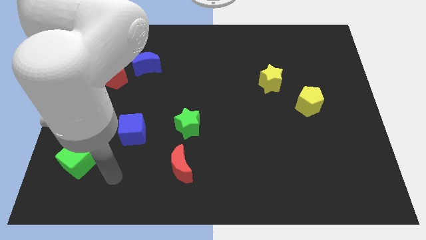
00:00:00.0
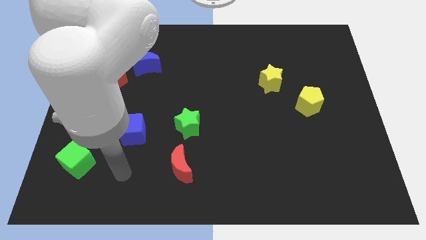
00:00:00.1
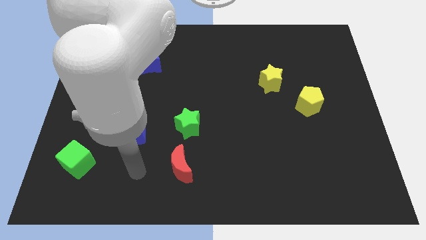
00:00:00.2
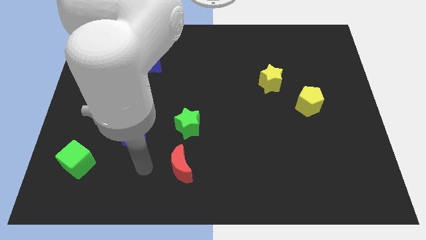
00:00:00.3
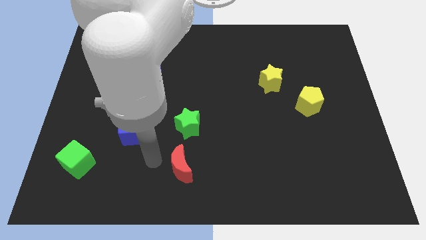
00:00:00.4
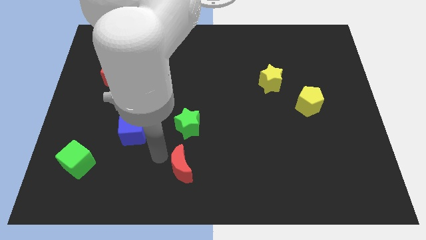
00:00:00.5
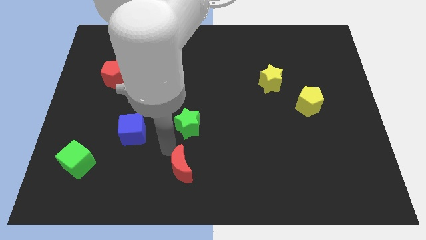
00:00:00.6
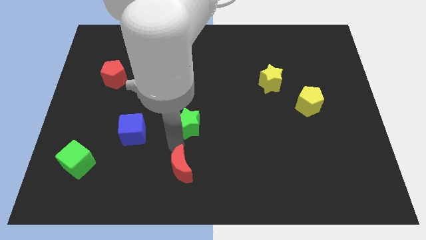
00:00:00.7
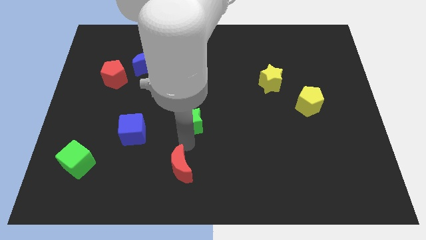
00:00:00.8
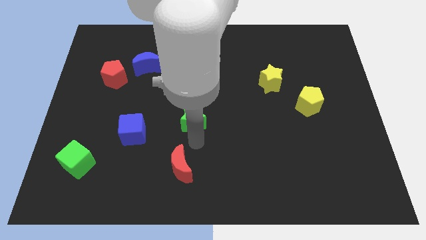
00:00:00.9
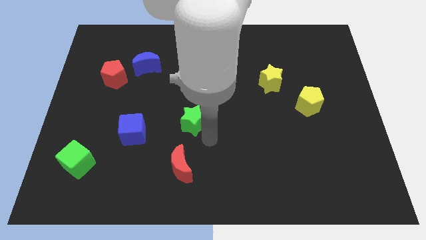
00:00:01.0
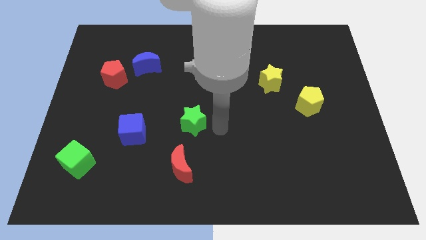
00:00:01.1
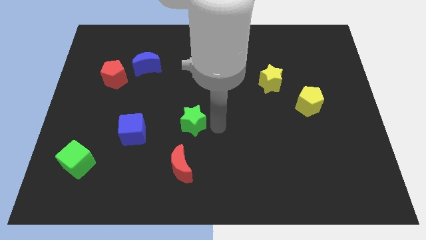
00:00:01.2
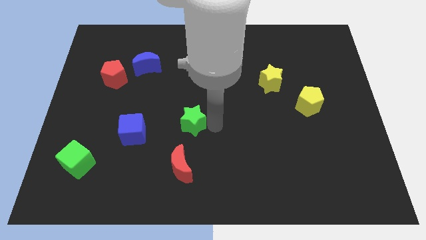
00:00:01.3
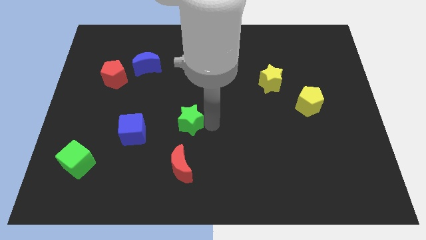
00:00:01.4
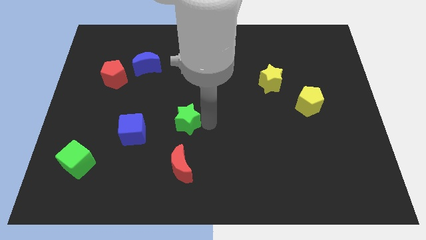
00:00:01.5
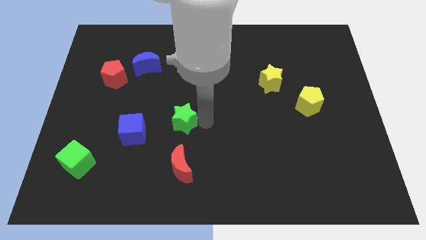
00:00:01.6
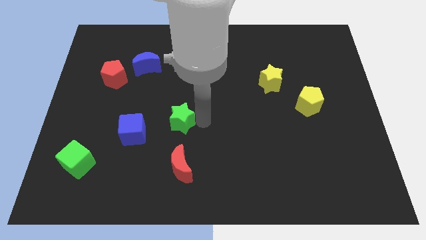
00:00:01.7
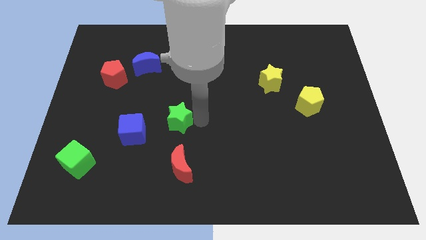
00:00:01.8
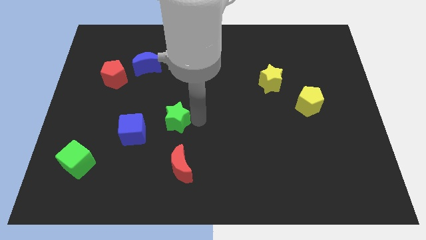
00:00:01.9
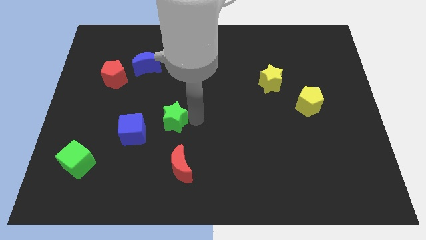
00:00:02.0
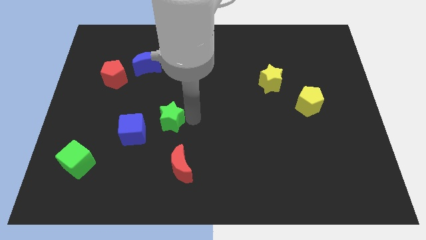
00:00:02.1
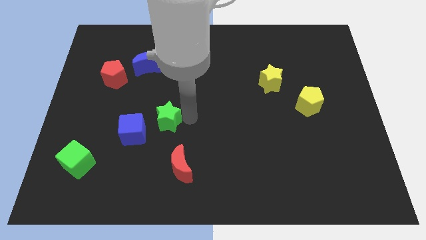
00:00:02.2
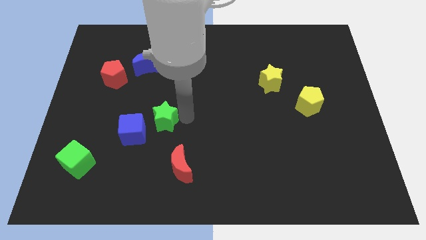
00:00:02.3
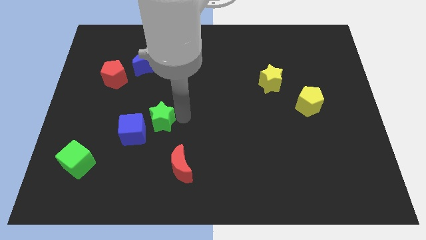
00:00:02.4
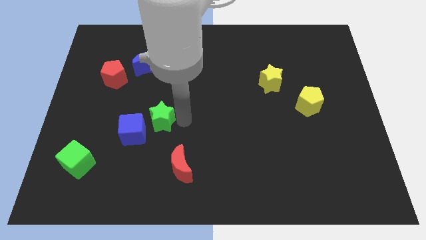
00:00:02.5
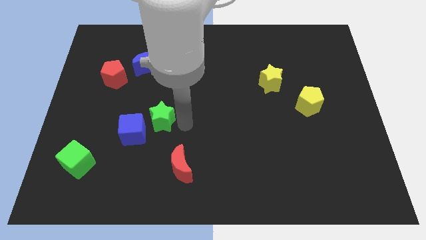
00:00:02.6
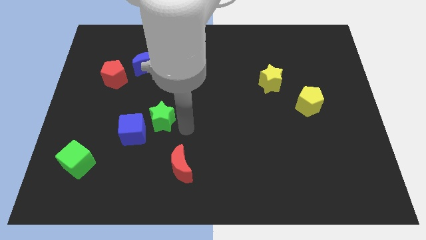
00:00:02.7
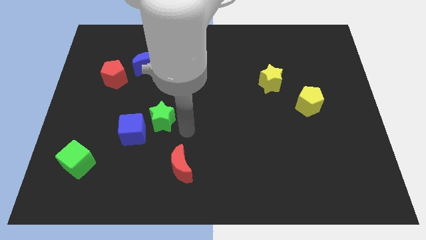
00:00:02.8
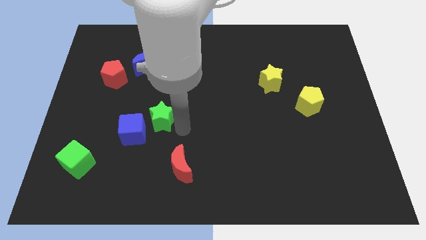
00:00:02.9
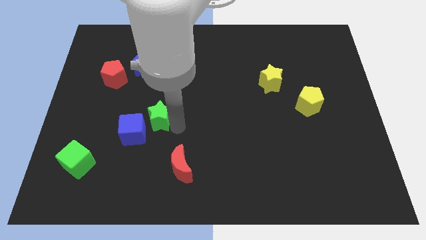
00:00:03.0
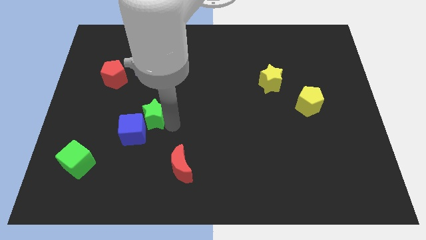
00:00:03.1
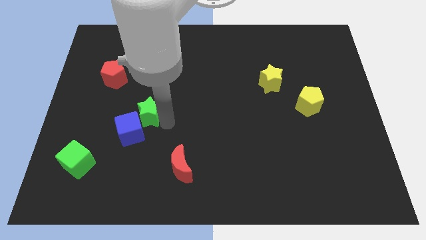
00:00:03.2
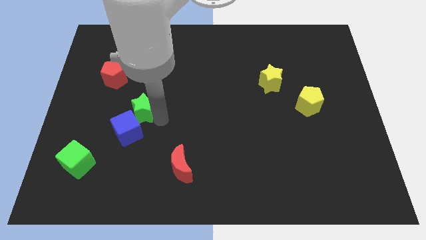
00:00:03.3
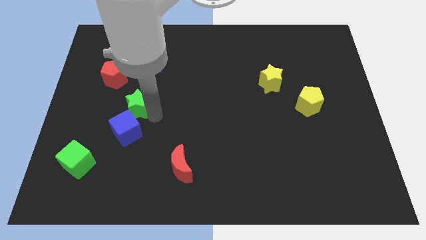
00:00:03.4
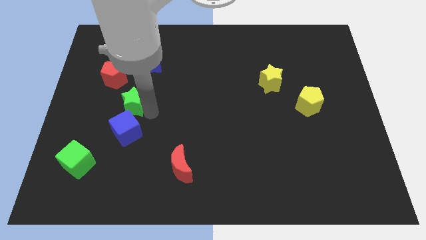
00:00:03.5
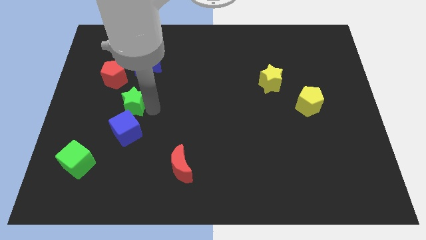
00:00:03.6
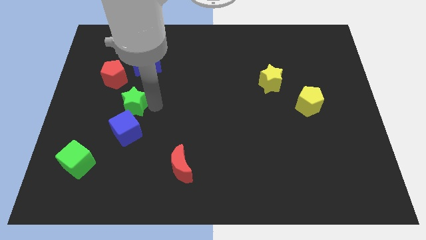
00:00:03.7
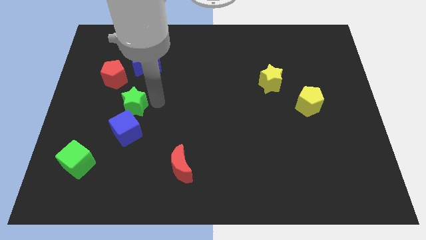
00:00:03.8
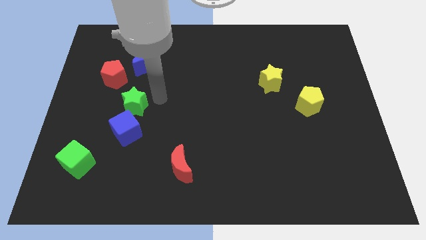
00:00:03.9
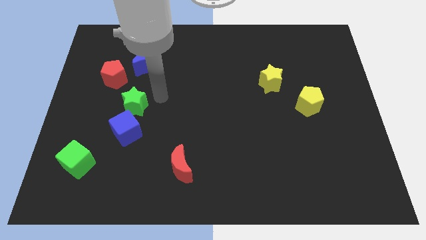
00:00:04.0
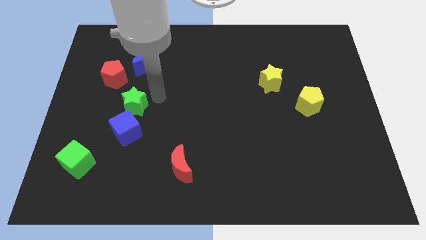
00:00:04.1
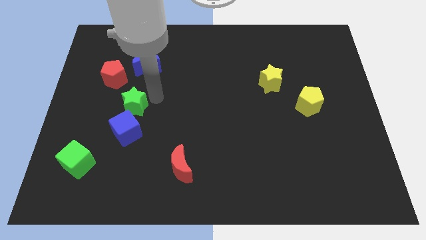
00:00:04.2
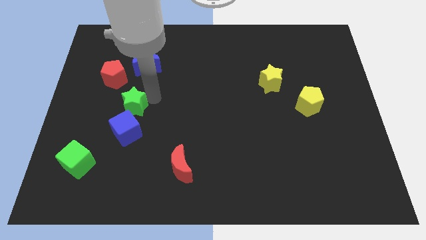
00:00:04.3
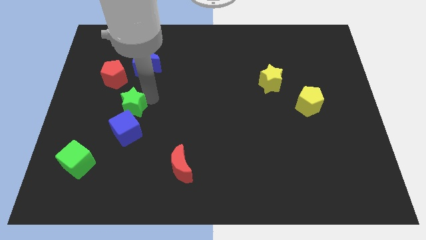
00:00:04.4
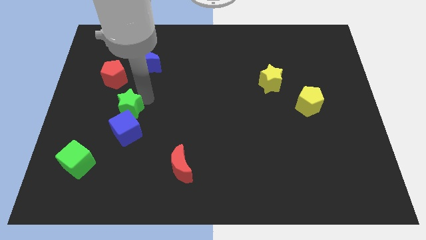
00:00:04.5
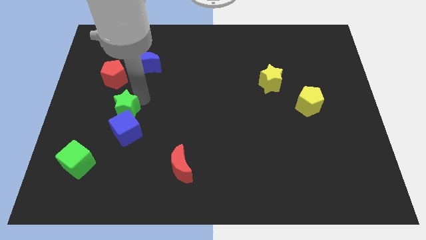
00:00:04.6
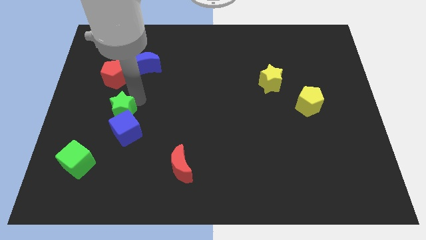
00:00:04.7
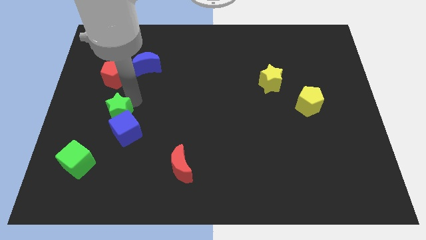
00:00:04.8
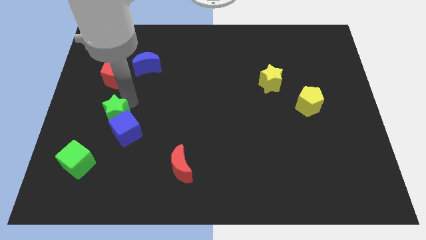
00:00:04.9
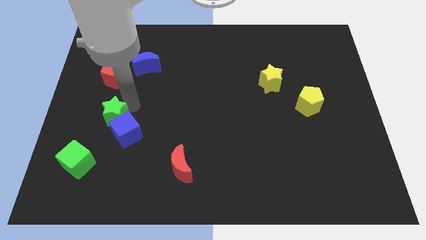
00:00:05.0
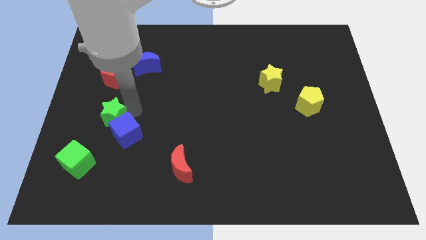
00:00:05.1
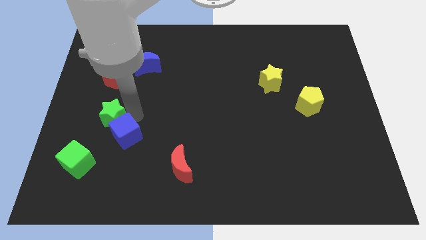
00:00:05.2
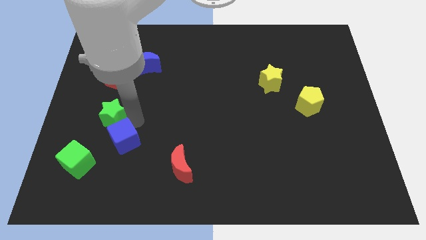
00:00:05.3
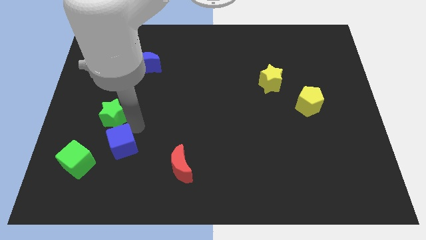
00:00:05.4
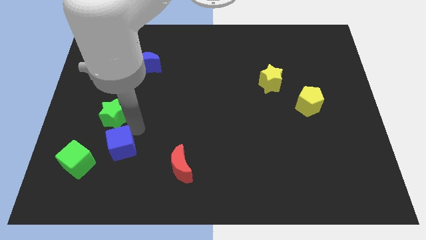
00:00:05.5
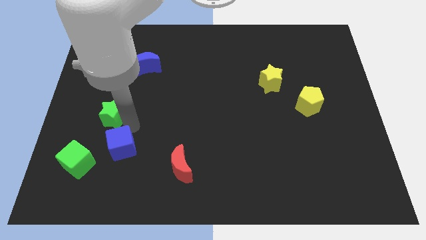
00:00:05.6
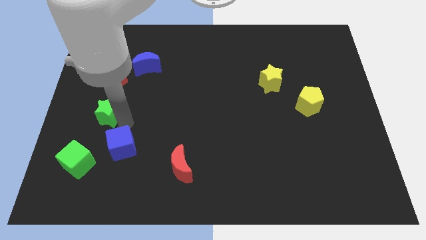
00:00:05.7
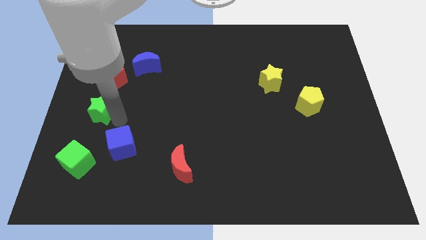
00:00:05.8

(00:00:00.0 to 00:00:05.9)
slide the green star to the left side

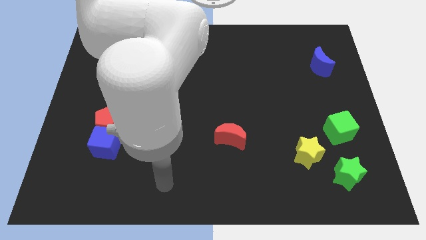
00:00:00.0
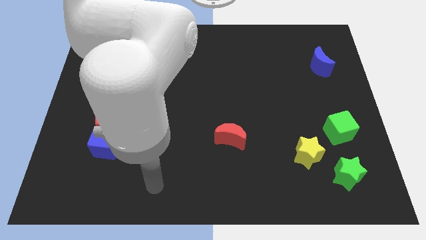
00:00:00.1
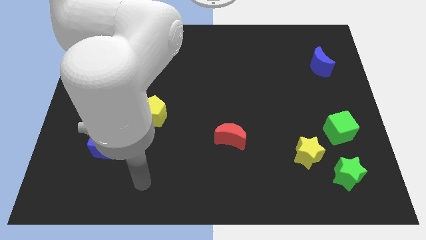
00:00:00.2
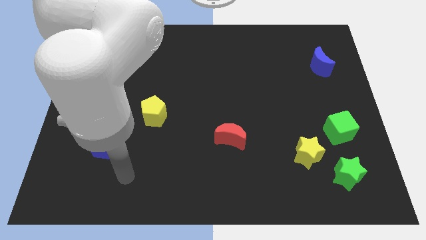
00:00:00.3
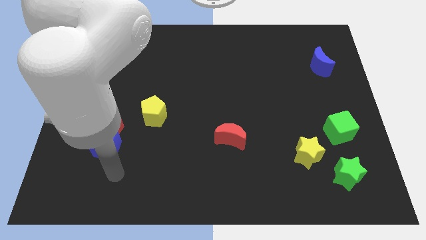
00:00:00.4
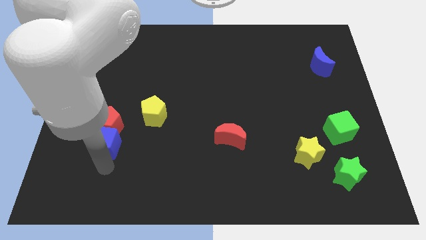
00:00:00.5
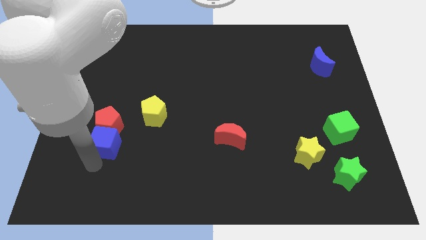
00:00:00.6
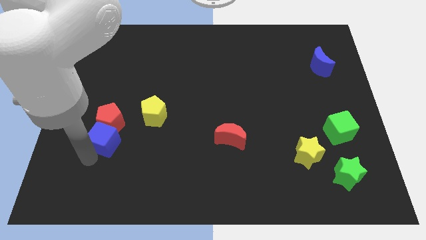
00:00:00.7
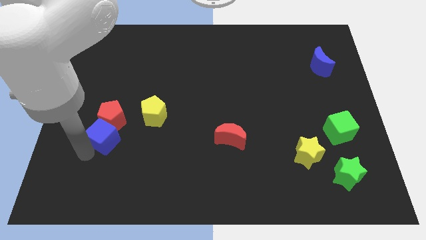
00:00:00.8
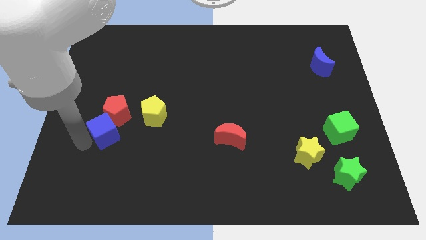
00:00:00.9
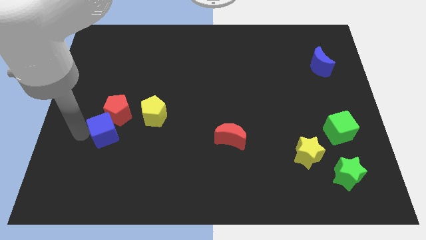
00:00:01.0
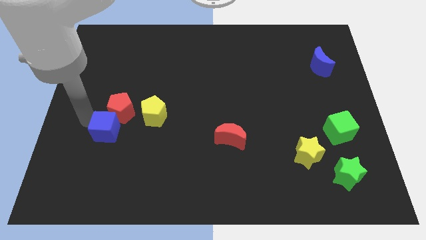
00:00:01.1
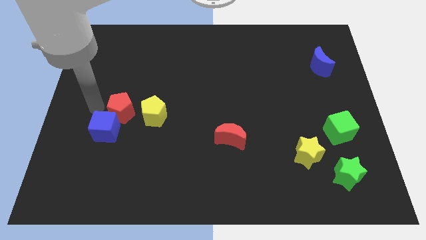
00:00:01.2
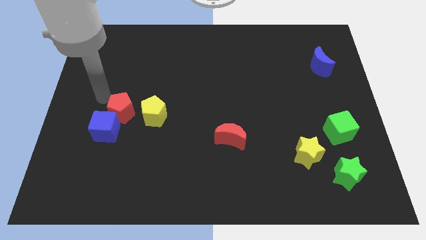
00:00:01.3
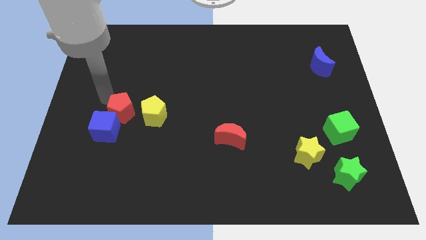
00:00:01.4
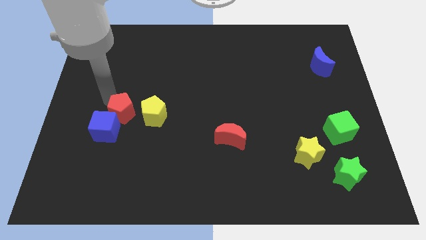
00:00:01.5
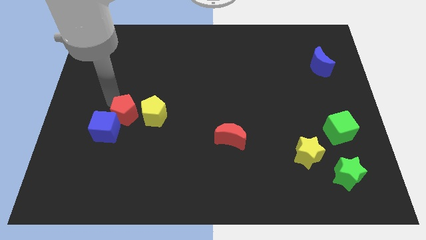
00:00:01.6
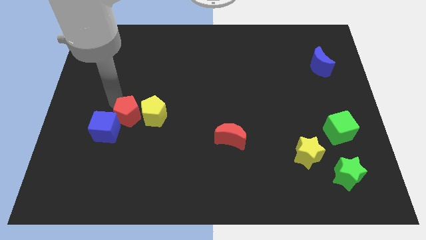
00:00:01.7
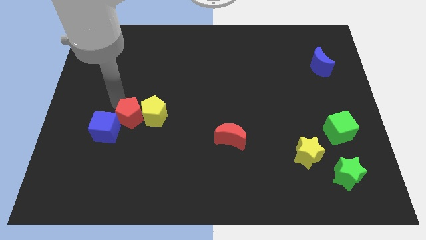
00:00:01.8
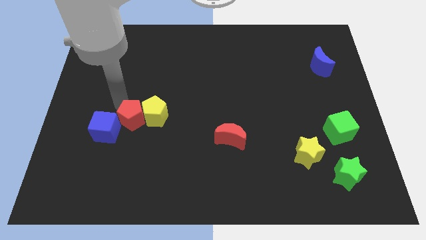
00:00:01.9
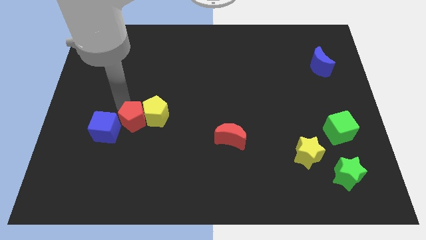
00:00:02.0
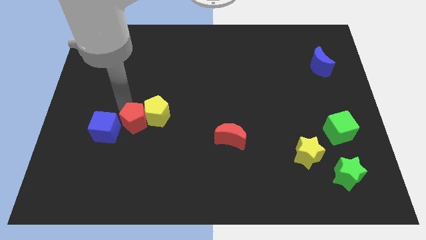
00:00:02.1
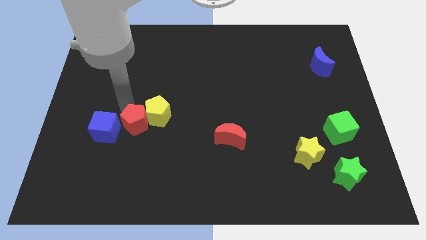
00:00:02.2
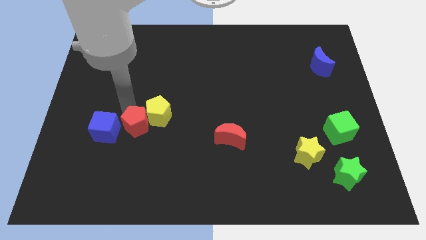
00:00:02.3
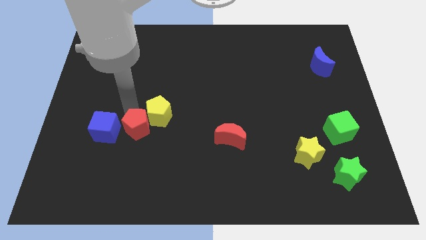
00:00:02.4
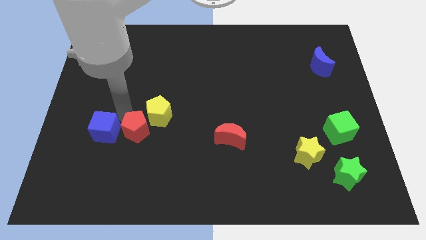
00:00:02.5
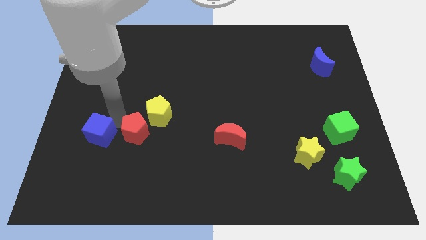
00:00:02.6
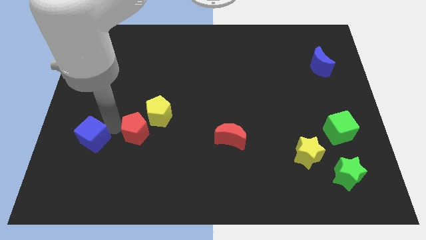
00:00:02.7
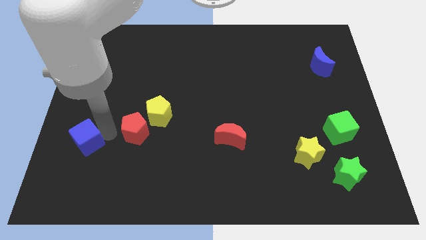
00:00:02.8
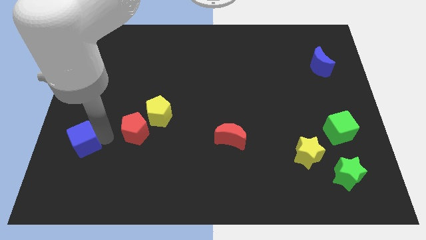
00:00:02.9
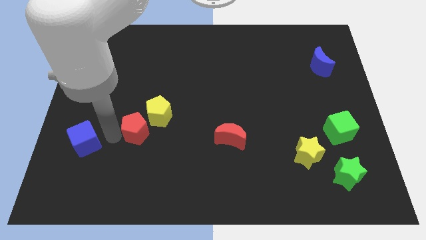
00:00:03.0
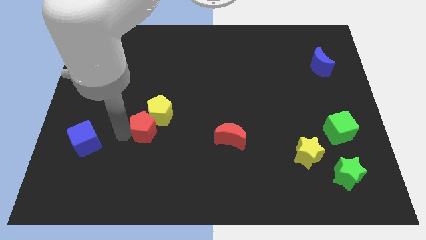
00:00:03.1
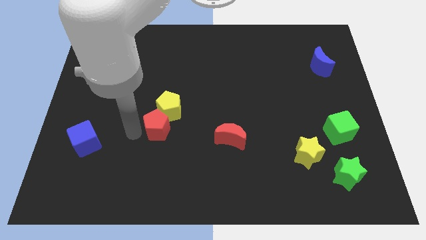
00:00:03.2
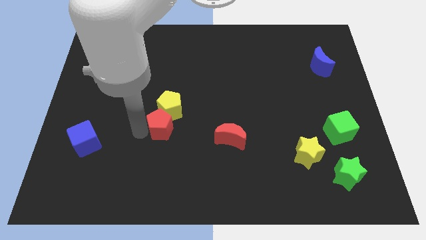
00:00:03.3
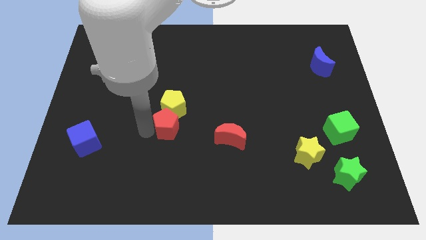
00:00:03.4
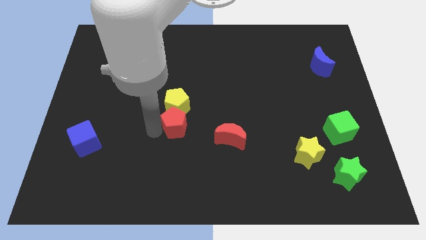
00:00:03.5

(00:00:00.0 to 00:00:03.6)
slide the red pentagon to the middle of the board
